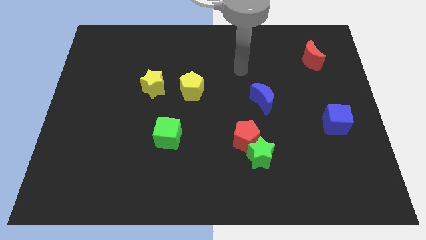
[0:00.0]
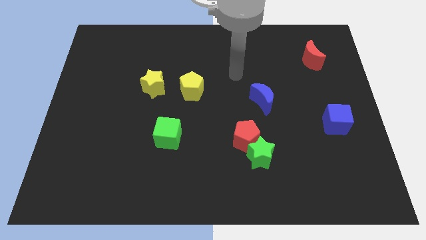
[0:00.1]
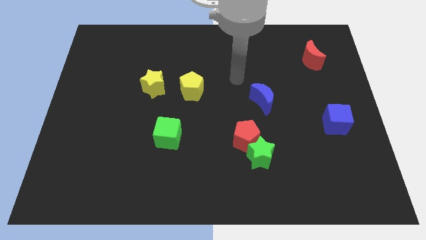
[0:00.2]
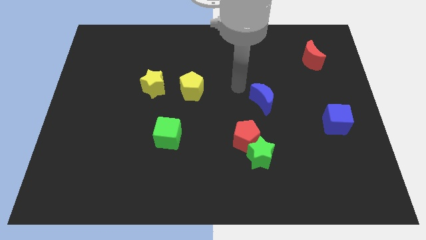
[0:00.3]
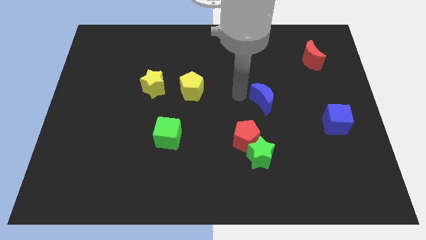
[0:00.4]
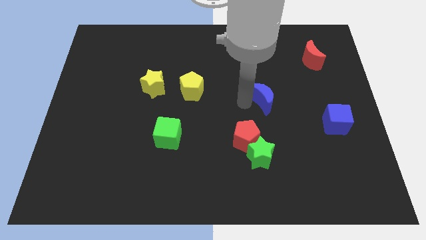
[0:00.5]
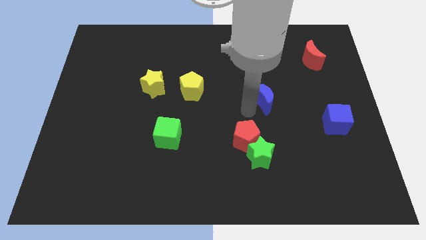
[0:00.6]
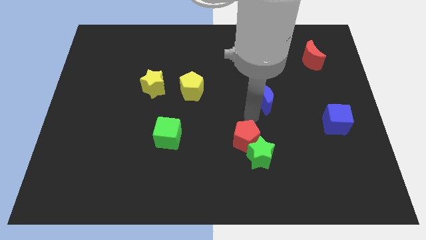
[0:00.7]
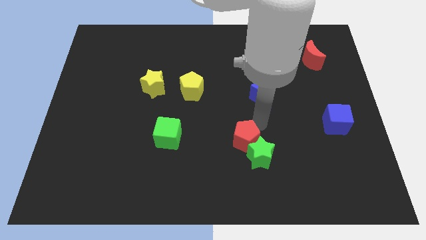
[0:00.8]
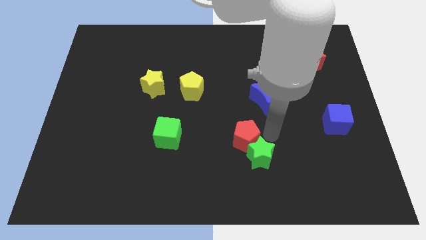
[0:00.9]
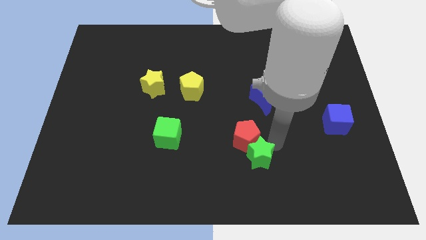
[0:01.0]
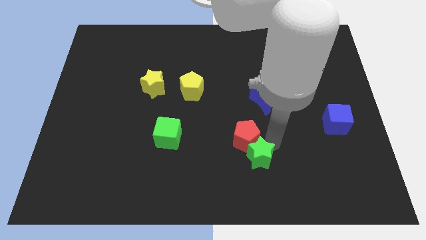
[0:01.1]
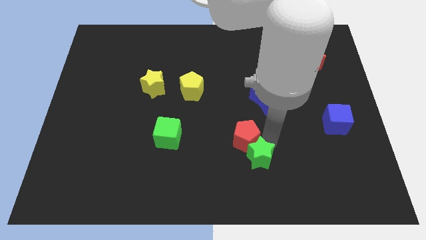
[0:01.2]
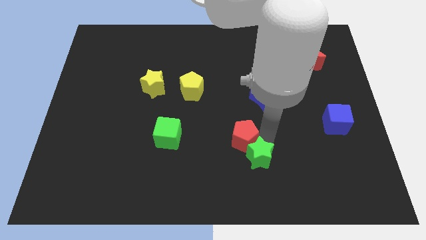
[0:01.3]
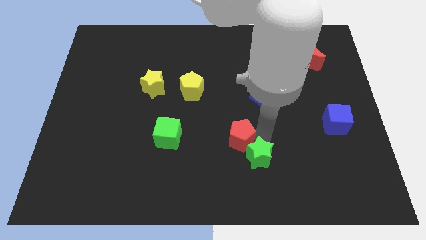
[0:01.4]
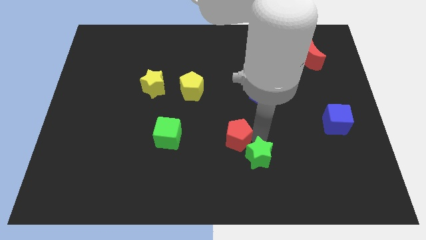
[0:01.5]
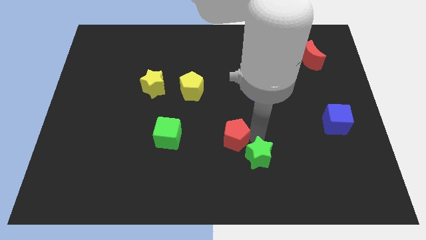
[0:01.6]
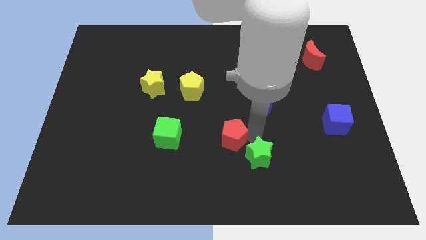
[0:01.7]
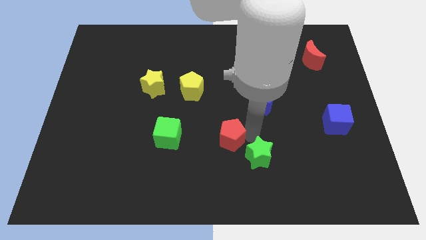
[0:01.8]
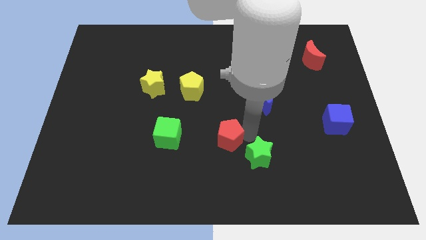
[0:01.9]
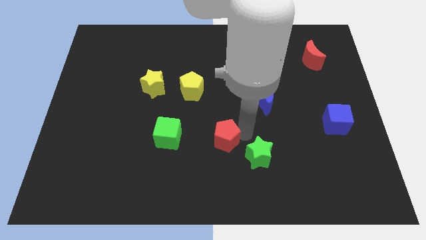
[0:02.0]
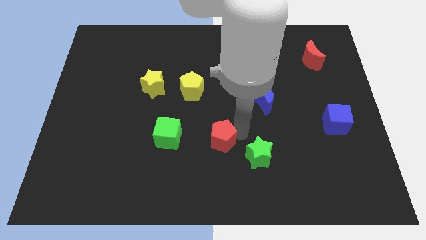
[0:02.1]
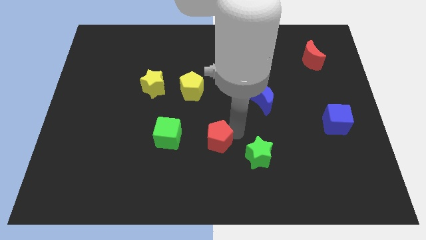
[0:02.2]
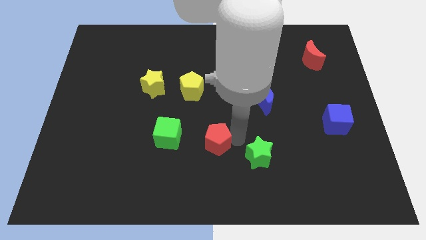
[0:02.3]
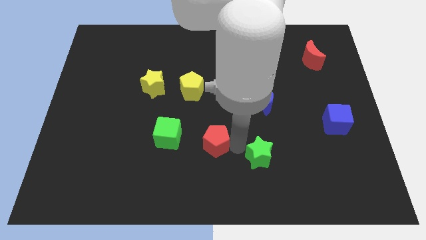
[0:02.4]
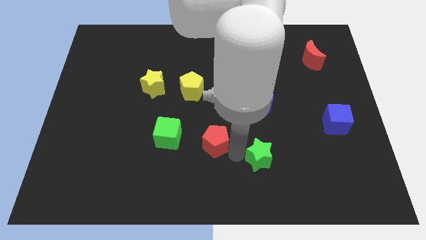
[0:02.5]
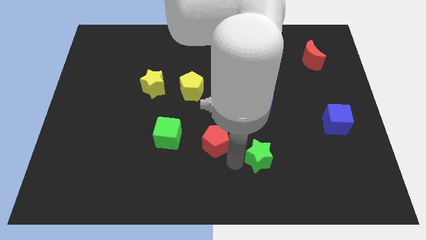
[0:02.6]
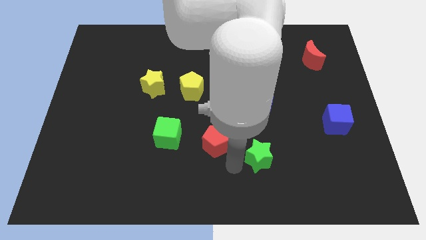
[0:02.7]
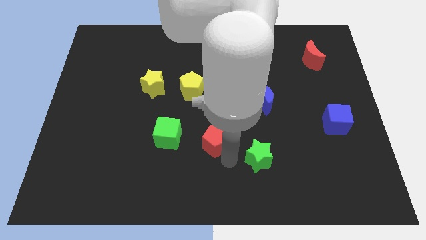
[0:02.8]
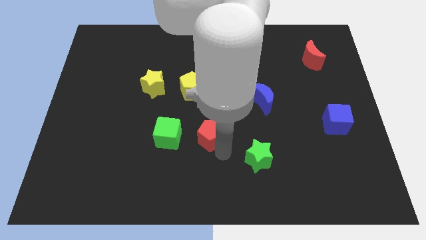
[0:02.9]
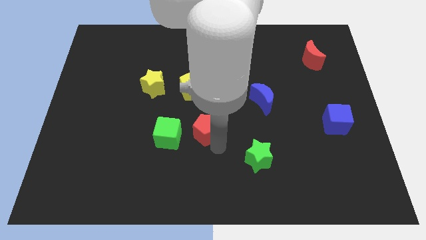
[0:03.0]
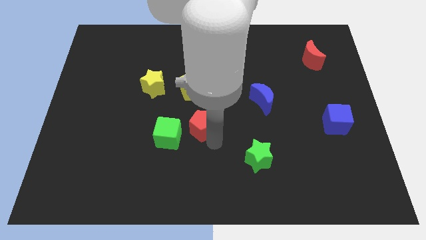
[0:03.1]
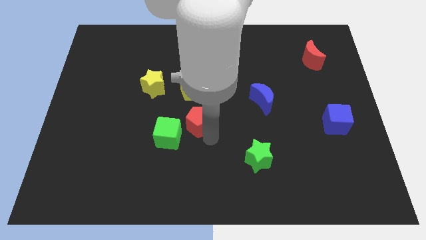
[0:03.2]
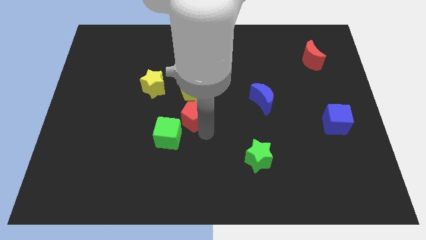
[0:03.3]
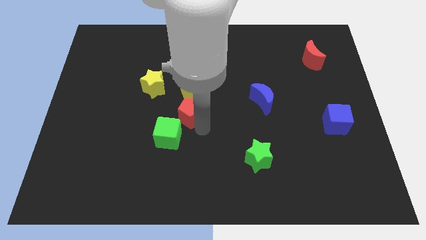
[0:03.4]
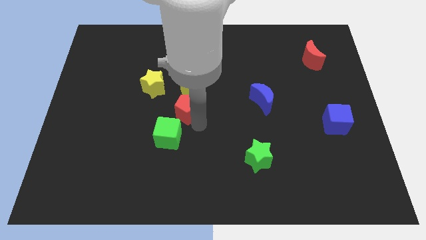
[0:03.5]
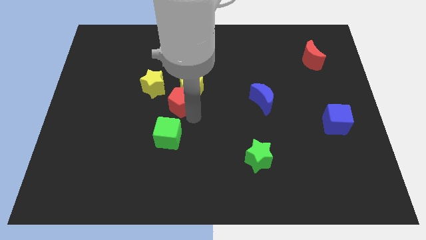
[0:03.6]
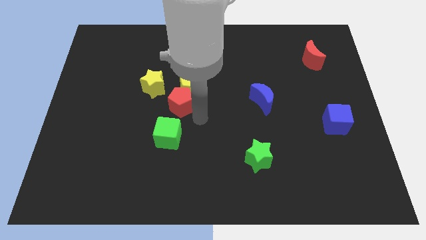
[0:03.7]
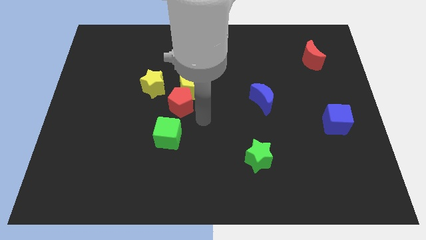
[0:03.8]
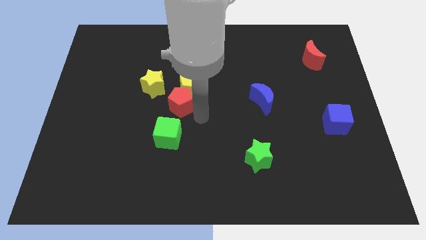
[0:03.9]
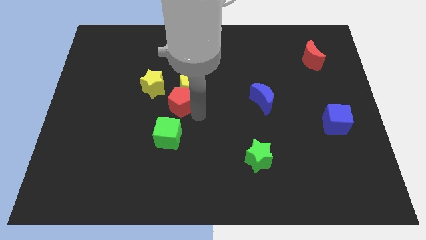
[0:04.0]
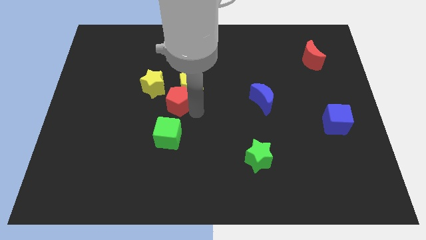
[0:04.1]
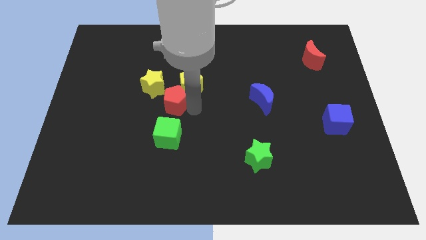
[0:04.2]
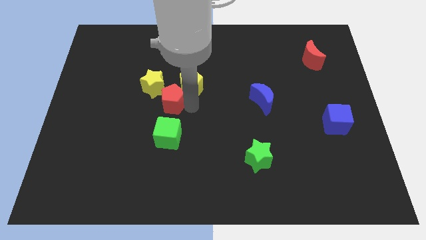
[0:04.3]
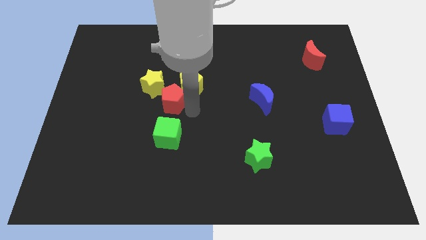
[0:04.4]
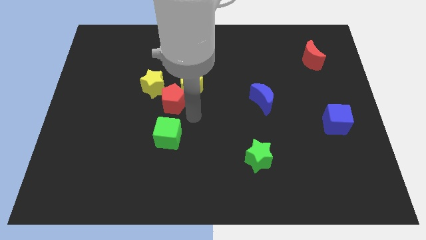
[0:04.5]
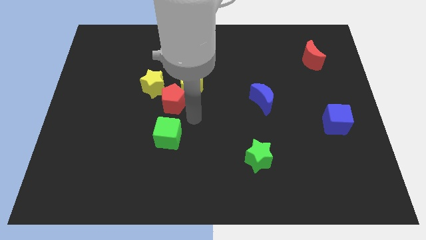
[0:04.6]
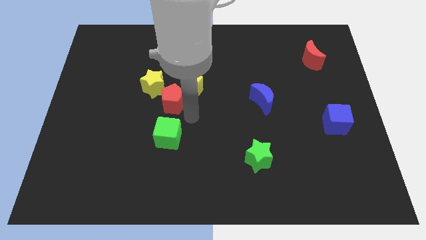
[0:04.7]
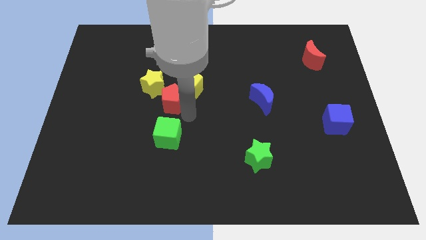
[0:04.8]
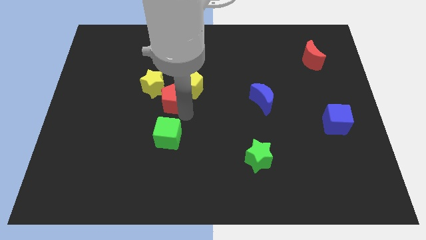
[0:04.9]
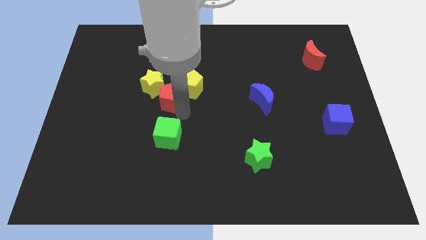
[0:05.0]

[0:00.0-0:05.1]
put the red pentagon close to the yellow star

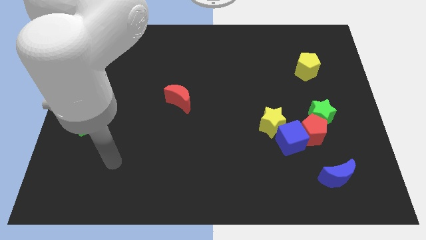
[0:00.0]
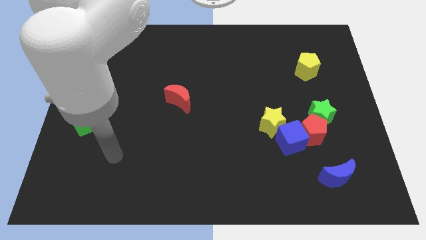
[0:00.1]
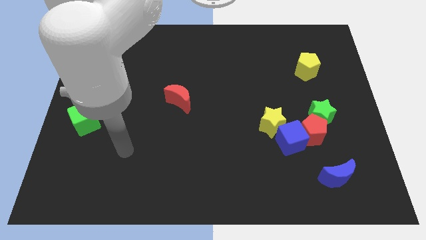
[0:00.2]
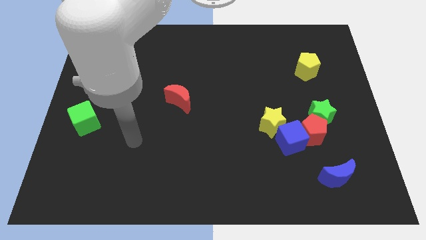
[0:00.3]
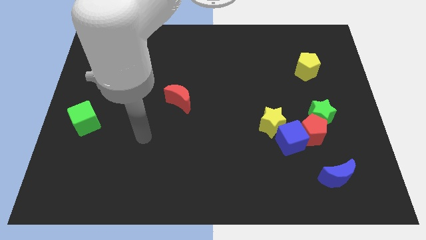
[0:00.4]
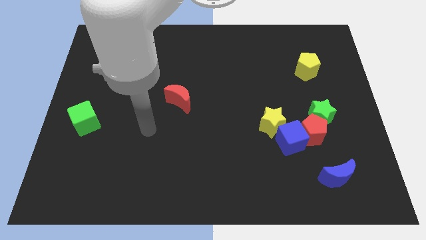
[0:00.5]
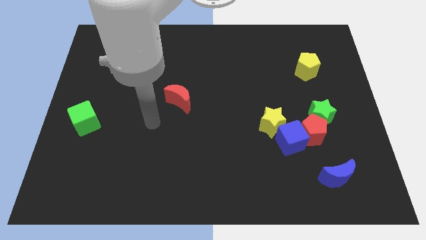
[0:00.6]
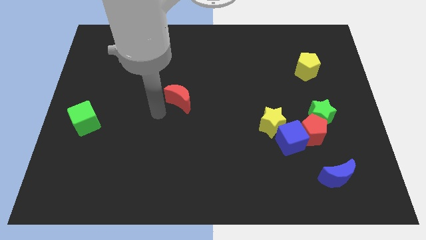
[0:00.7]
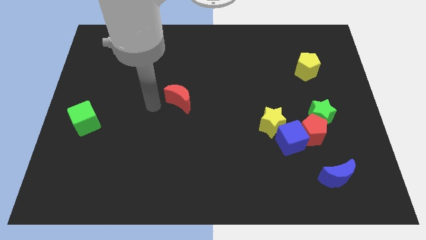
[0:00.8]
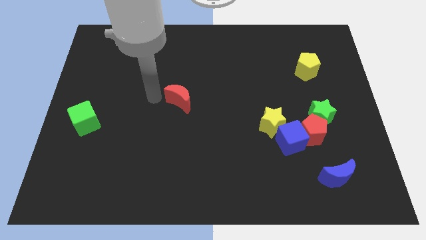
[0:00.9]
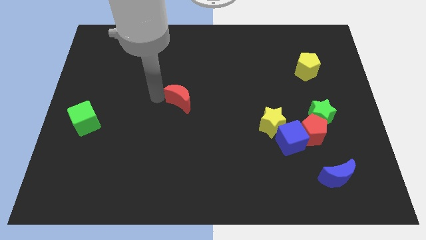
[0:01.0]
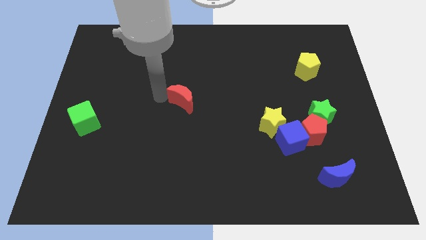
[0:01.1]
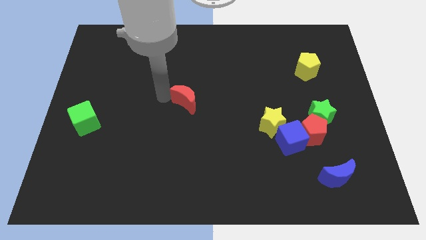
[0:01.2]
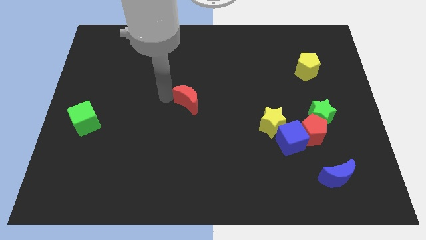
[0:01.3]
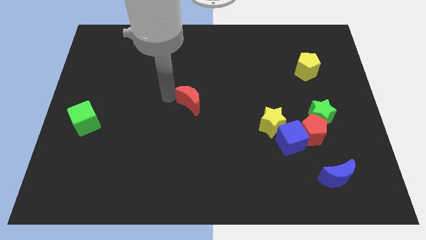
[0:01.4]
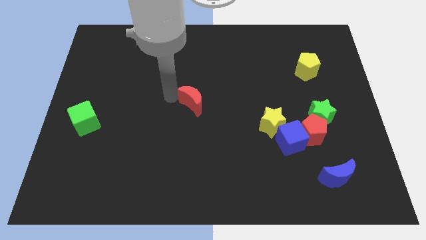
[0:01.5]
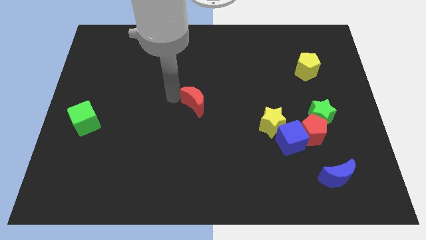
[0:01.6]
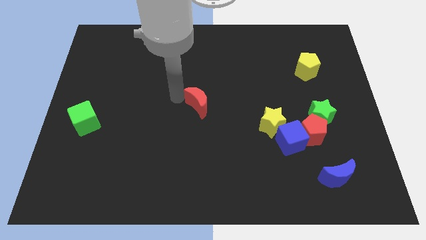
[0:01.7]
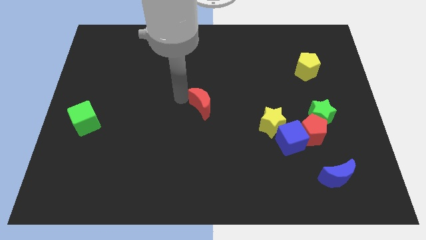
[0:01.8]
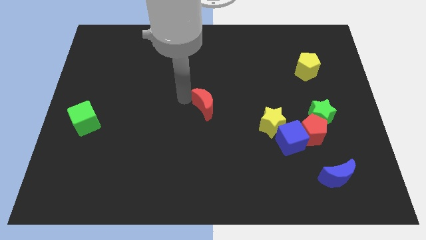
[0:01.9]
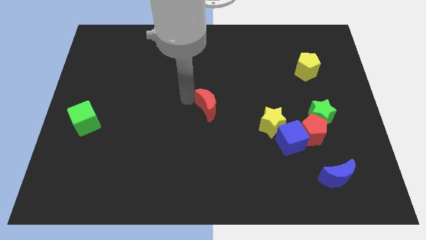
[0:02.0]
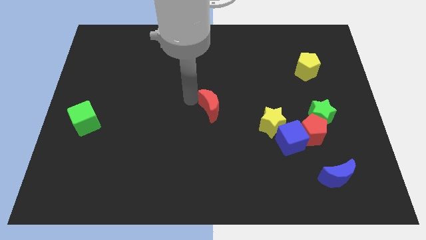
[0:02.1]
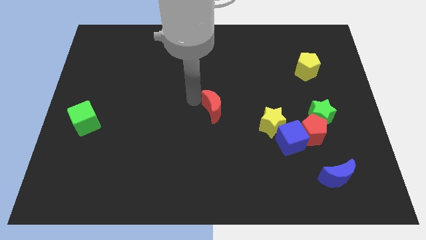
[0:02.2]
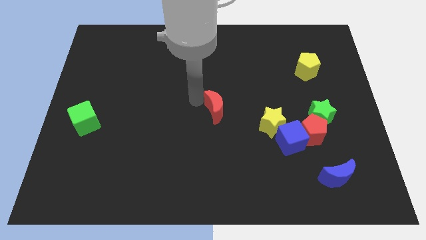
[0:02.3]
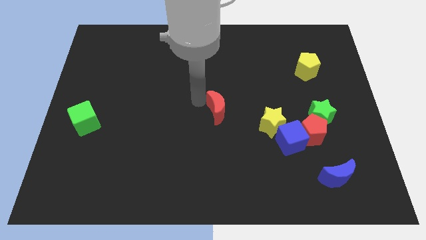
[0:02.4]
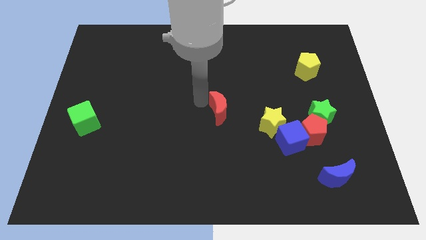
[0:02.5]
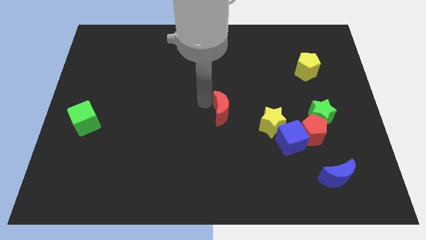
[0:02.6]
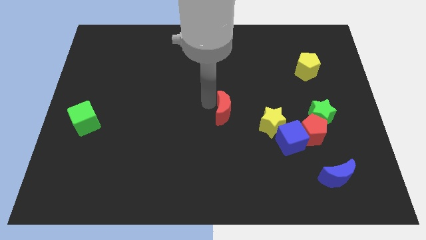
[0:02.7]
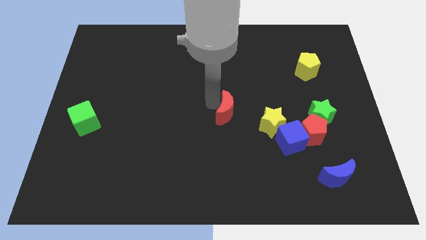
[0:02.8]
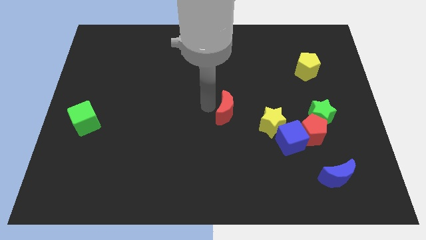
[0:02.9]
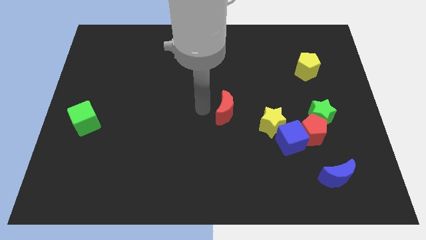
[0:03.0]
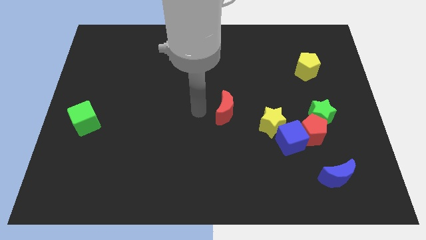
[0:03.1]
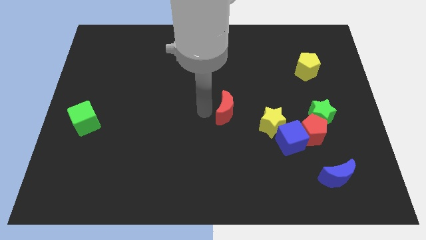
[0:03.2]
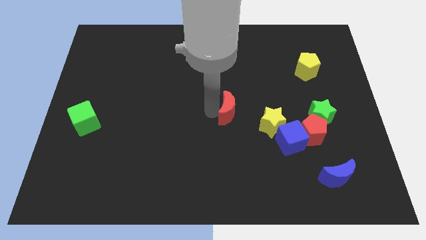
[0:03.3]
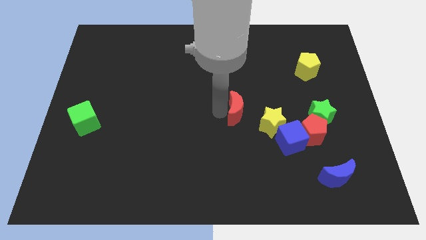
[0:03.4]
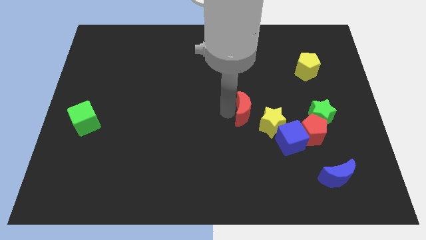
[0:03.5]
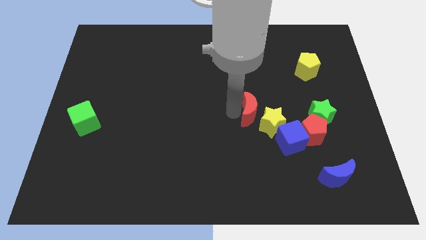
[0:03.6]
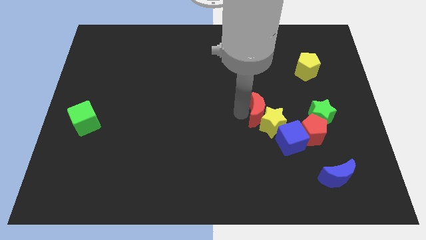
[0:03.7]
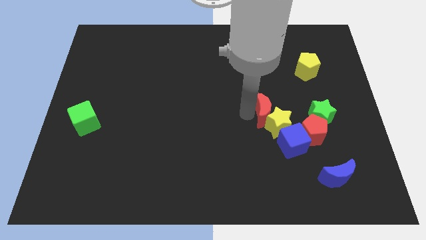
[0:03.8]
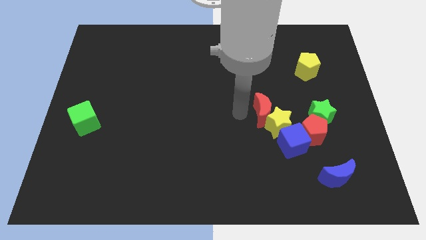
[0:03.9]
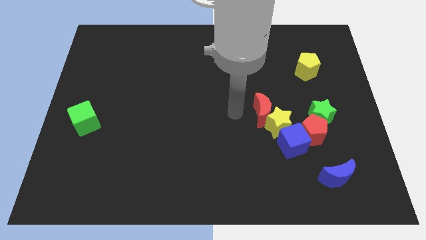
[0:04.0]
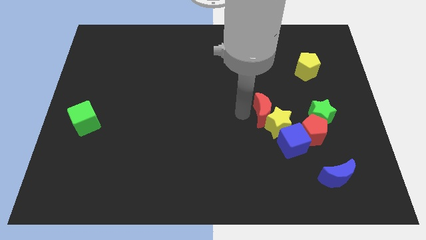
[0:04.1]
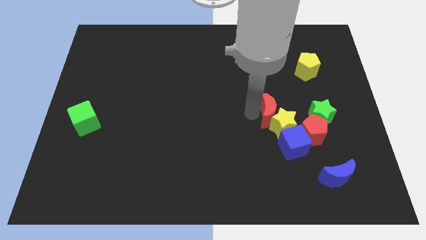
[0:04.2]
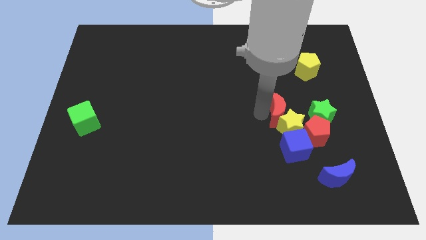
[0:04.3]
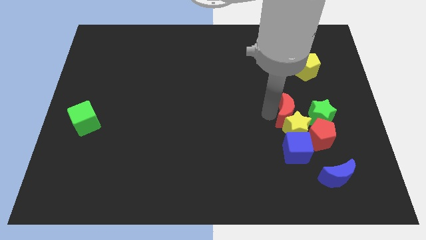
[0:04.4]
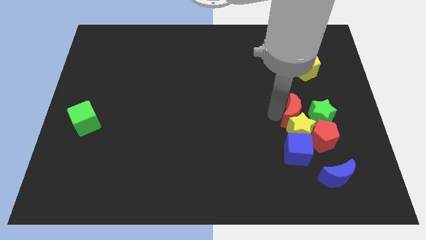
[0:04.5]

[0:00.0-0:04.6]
move the red moon to the green star
